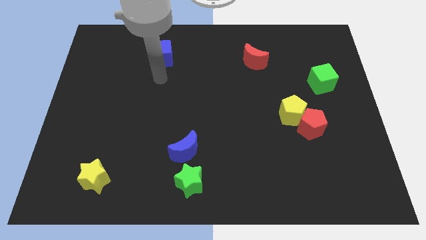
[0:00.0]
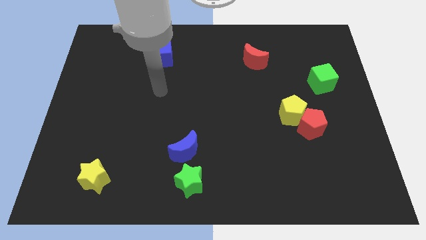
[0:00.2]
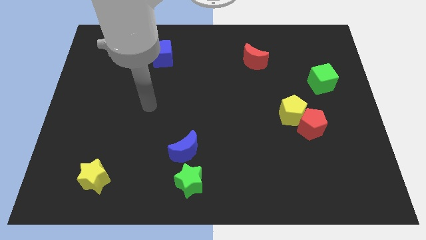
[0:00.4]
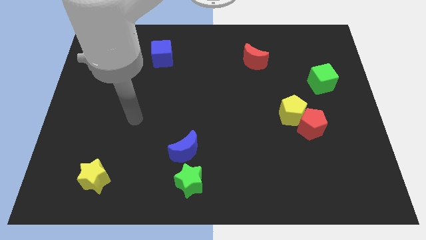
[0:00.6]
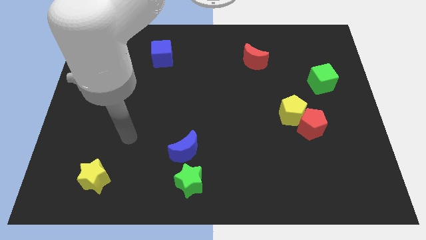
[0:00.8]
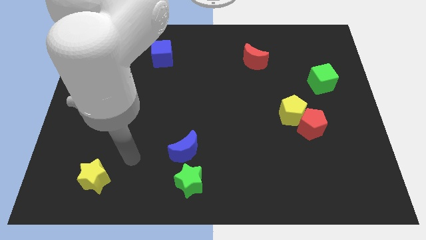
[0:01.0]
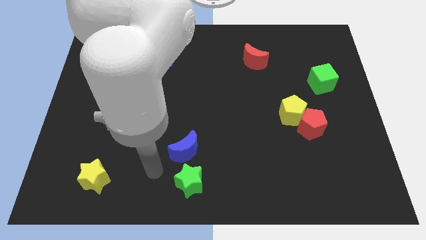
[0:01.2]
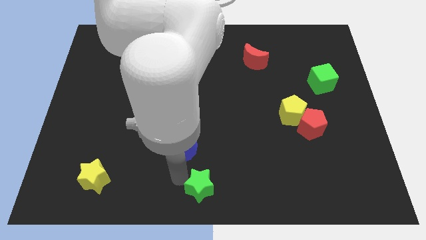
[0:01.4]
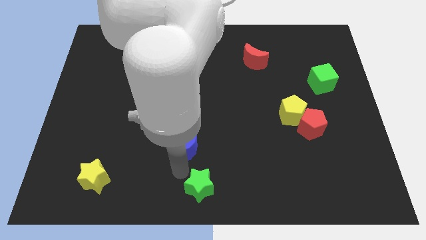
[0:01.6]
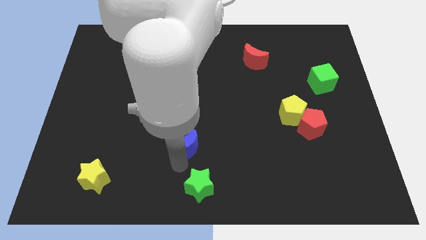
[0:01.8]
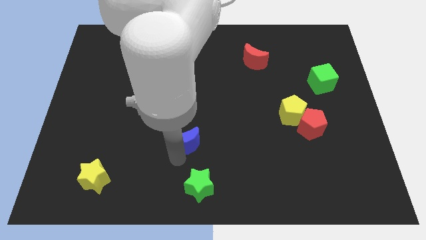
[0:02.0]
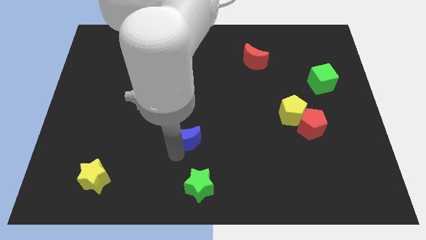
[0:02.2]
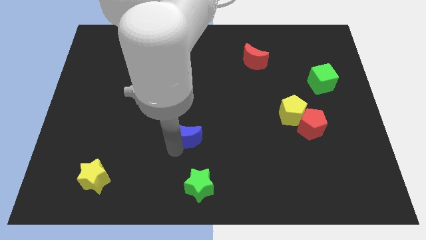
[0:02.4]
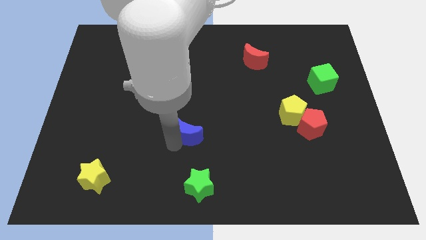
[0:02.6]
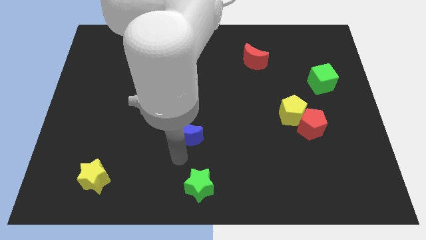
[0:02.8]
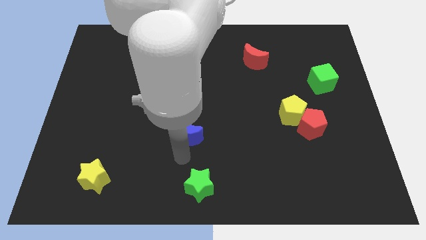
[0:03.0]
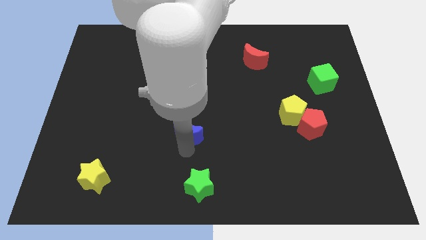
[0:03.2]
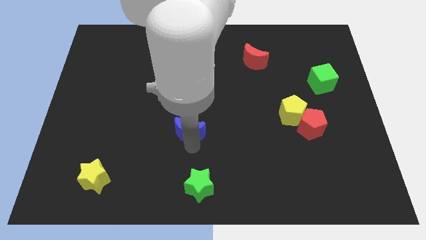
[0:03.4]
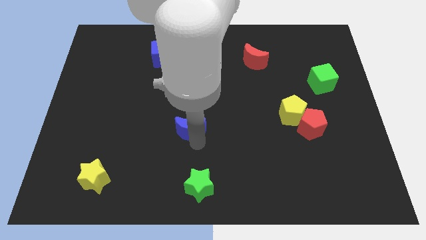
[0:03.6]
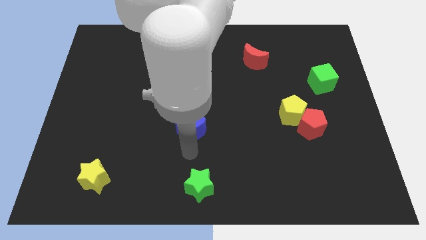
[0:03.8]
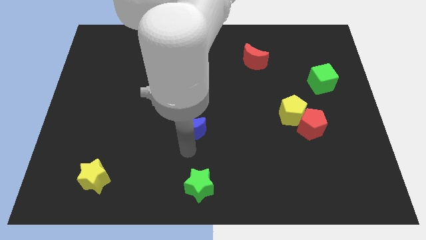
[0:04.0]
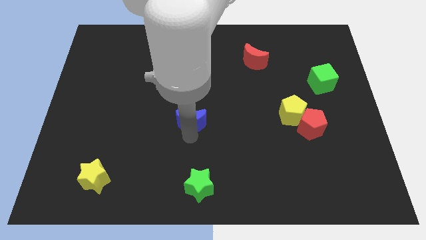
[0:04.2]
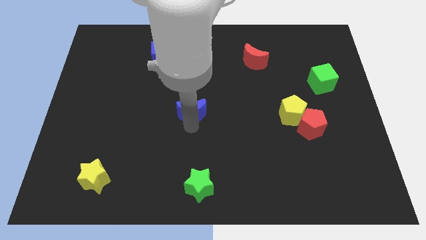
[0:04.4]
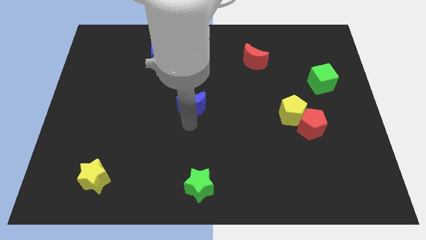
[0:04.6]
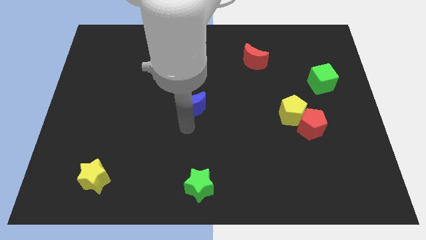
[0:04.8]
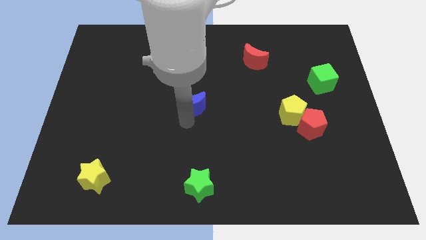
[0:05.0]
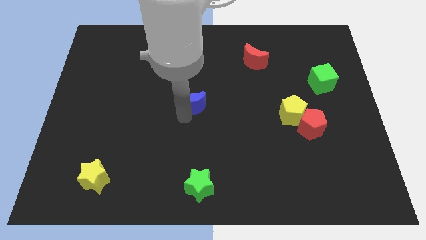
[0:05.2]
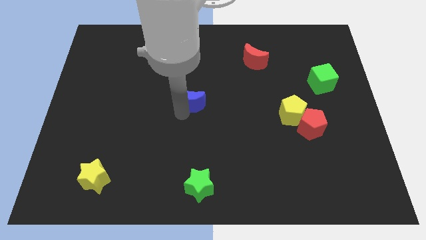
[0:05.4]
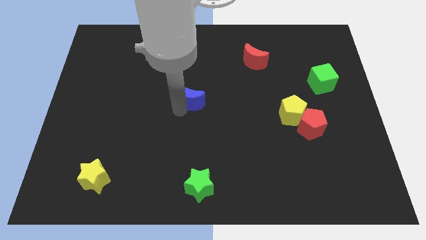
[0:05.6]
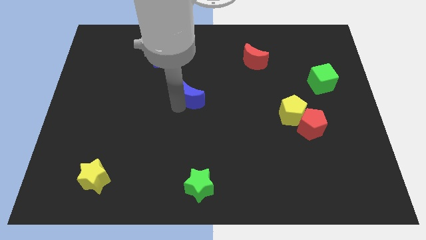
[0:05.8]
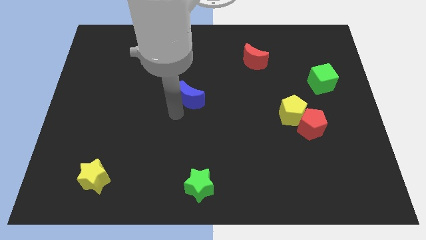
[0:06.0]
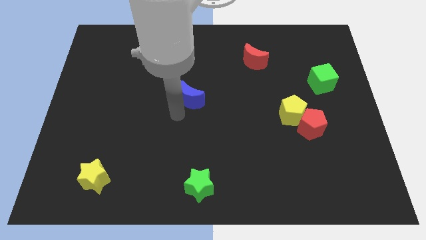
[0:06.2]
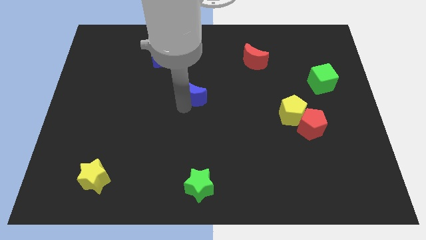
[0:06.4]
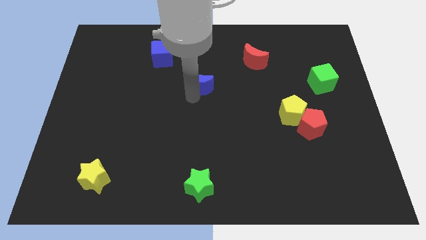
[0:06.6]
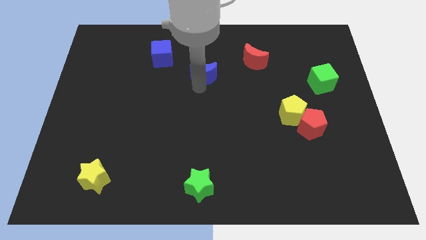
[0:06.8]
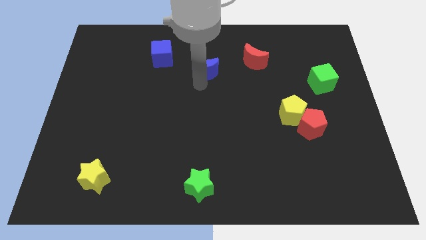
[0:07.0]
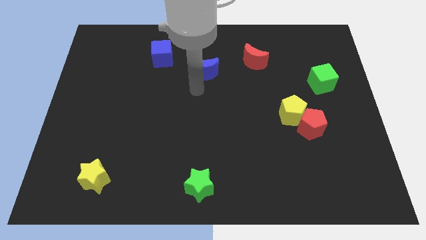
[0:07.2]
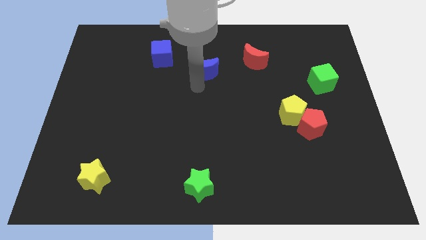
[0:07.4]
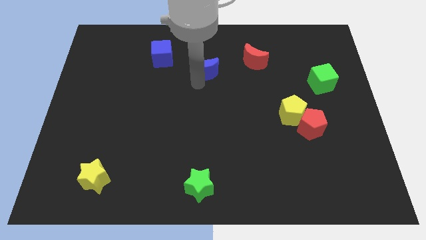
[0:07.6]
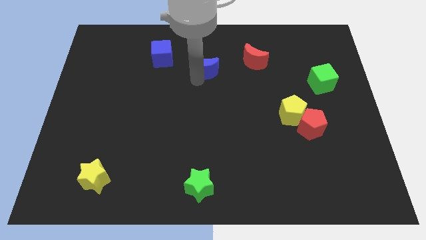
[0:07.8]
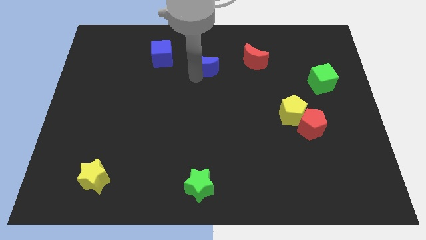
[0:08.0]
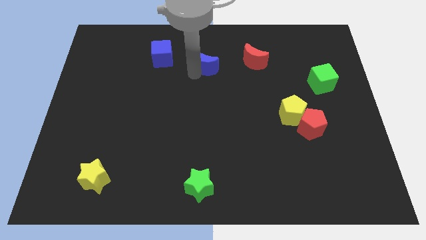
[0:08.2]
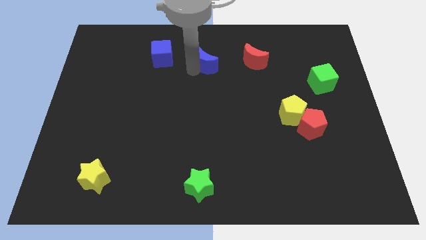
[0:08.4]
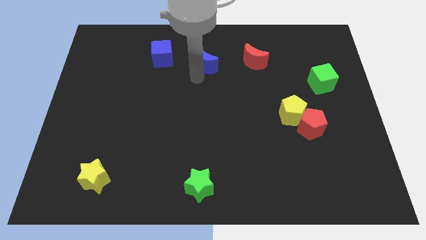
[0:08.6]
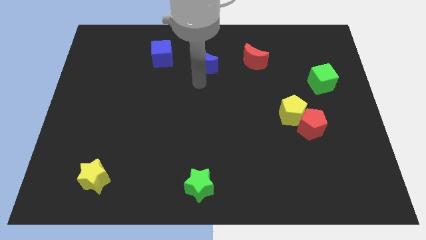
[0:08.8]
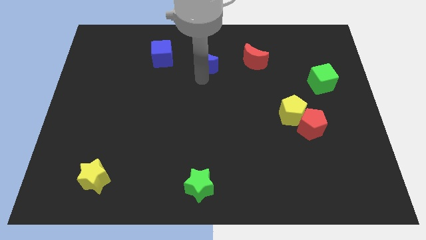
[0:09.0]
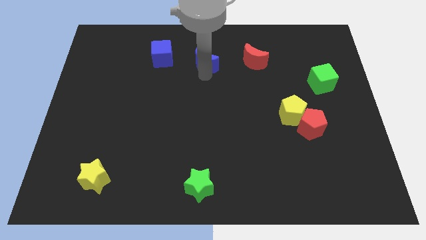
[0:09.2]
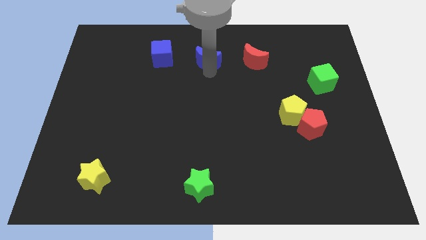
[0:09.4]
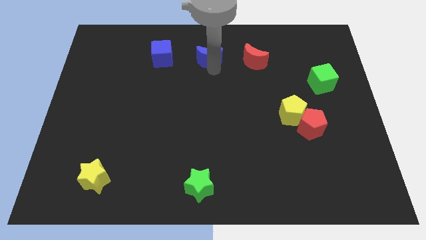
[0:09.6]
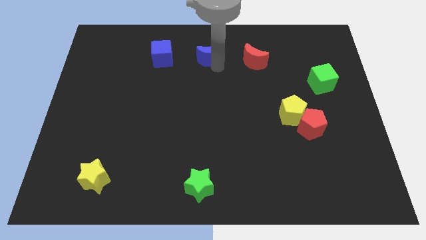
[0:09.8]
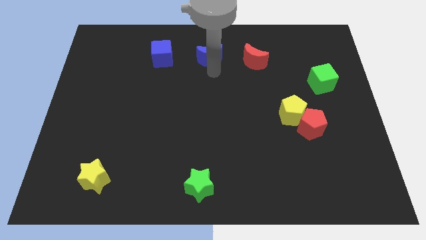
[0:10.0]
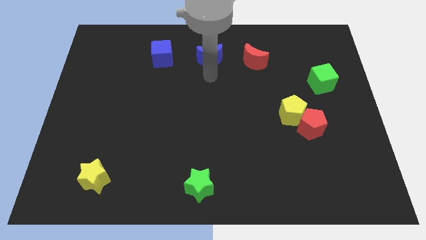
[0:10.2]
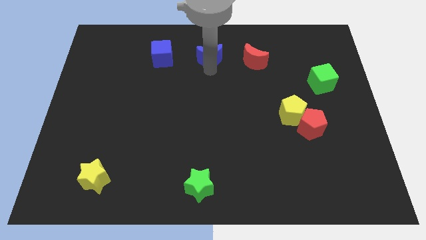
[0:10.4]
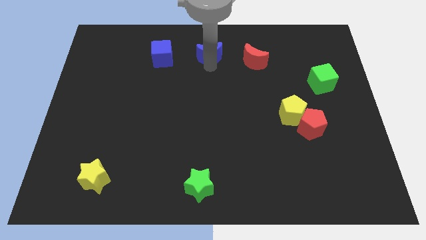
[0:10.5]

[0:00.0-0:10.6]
move the blue moon to the top
